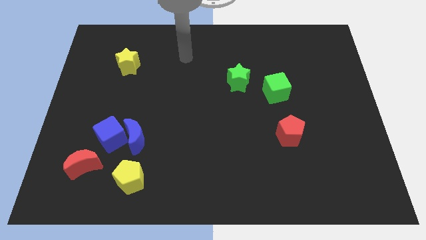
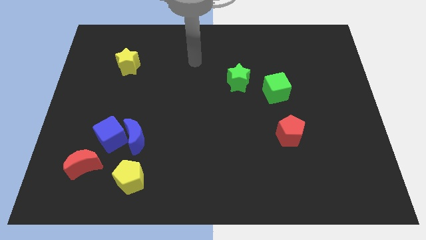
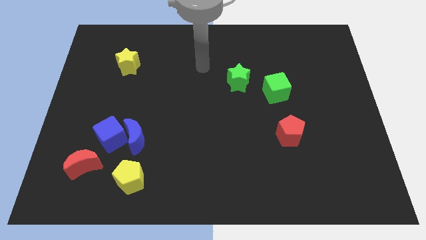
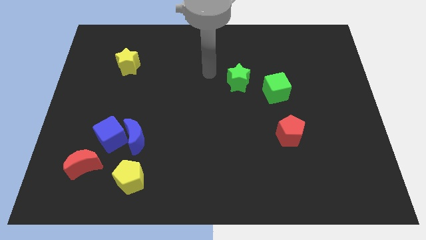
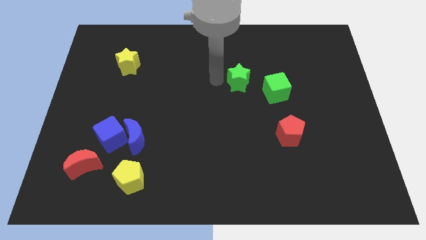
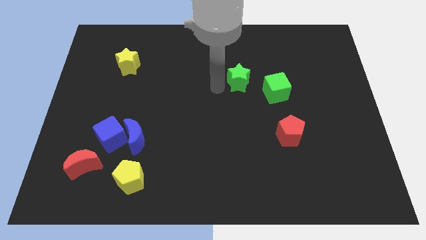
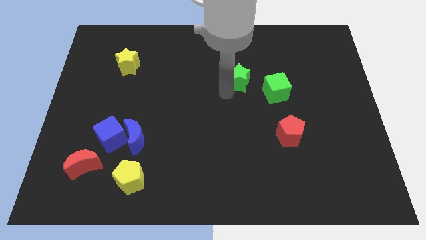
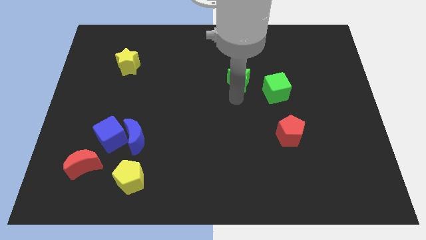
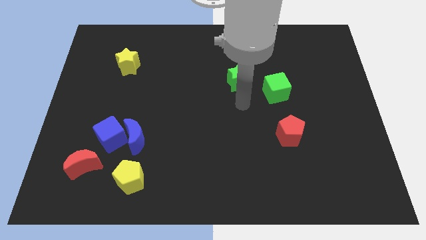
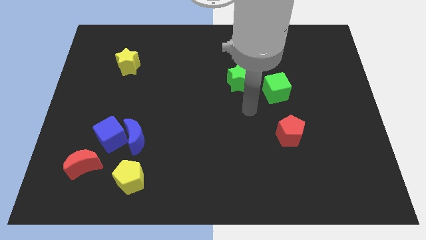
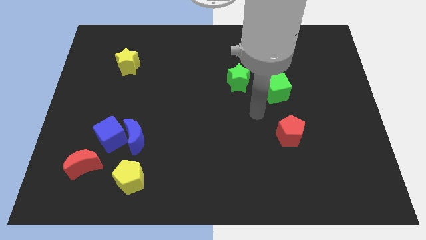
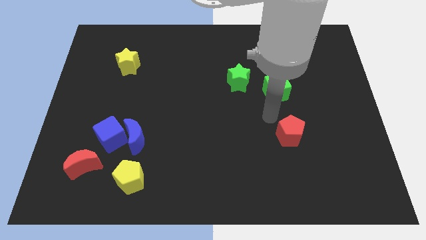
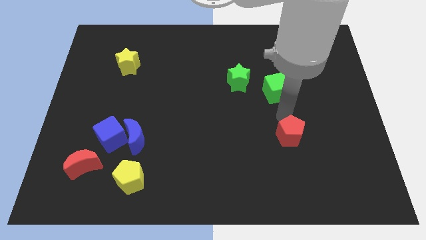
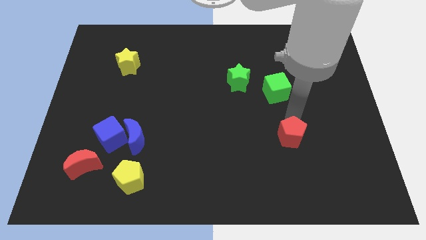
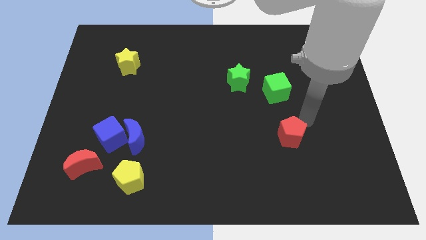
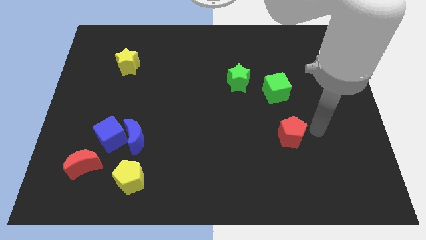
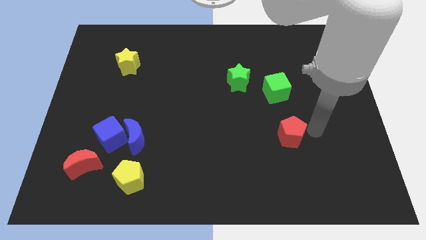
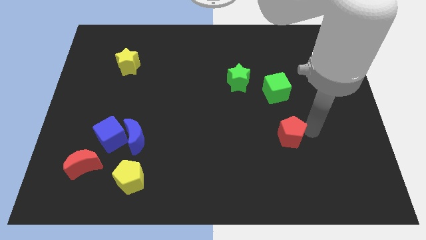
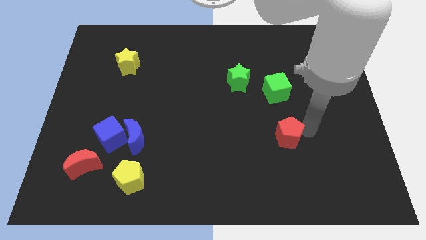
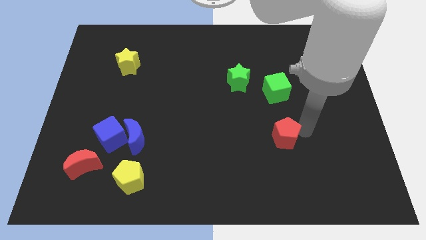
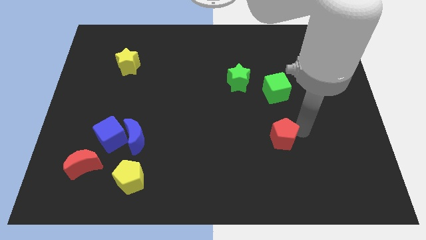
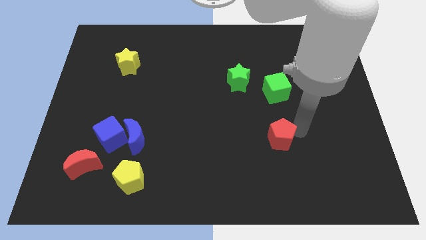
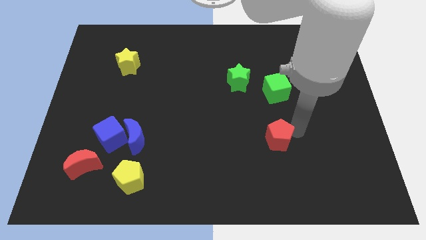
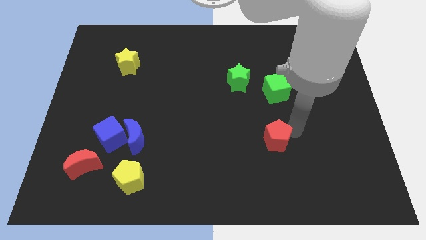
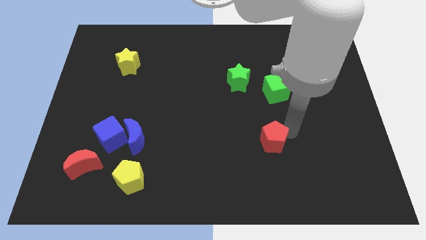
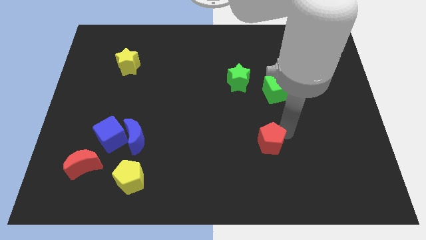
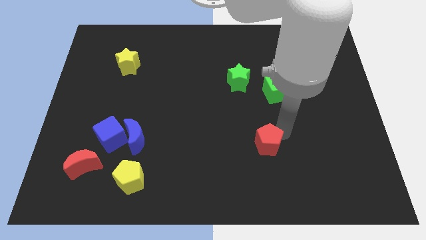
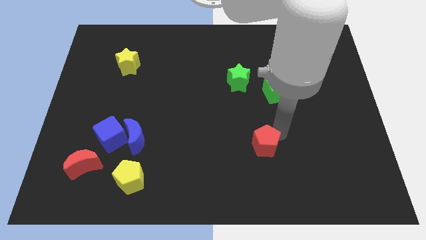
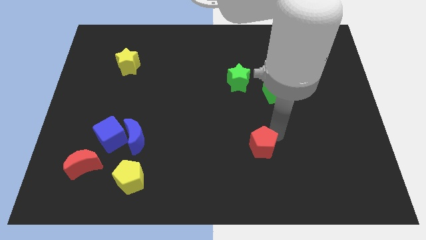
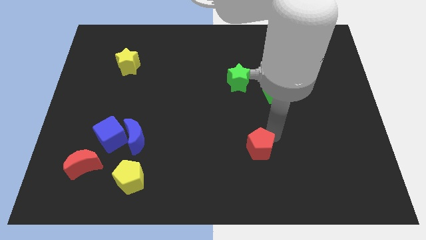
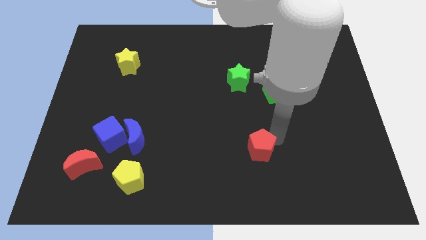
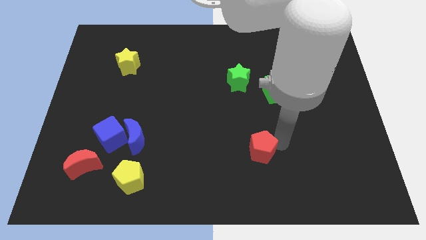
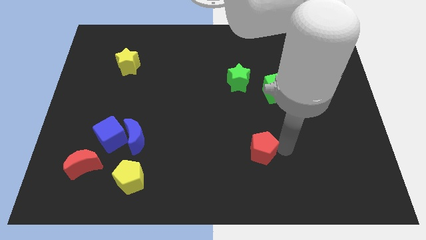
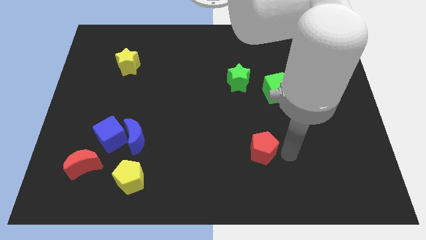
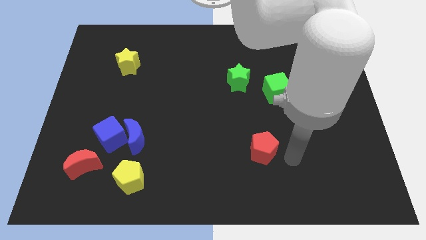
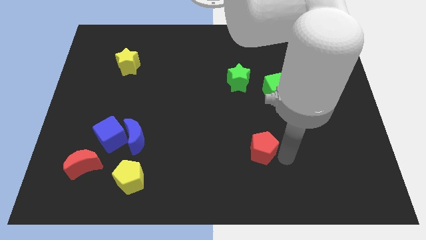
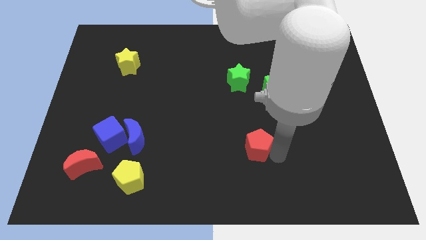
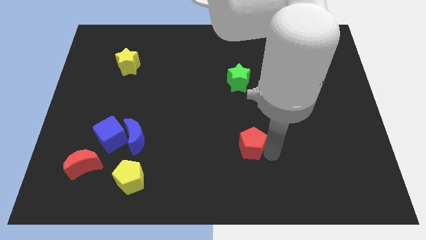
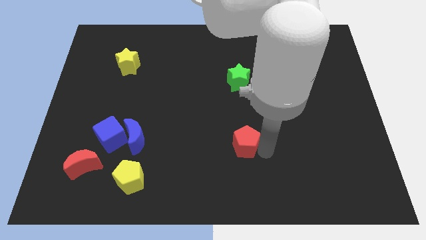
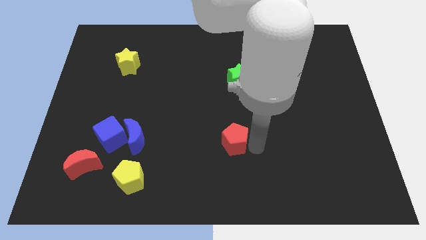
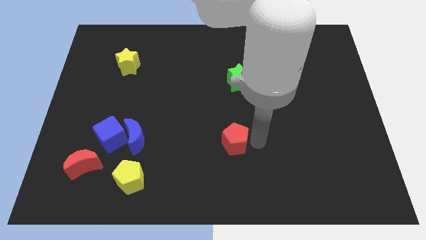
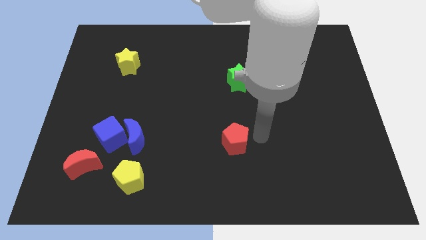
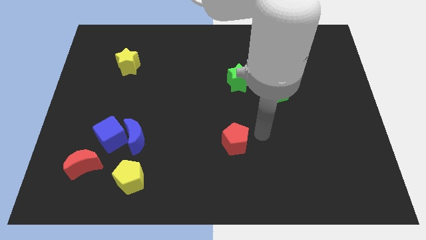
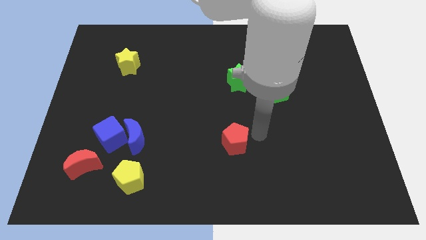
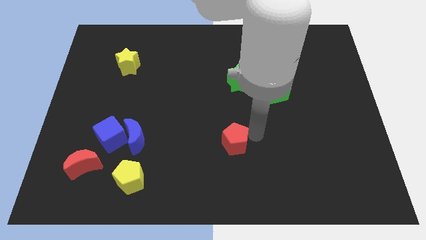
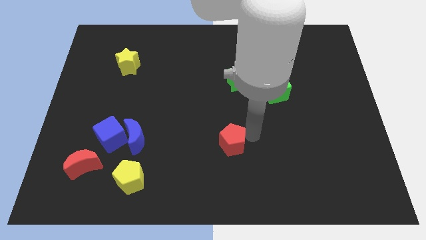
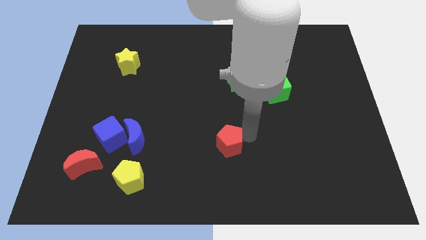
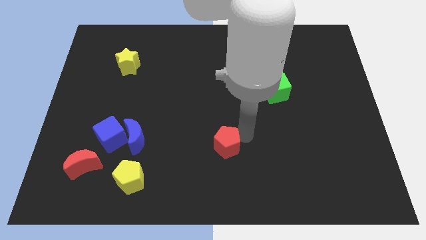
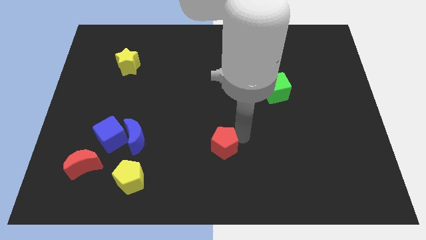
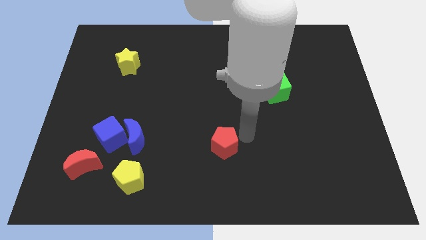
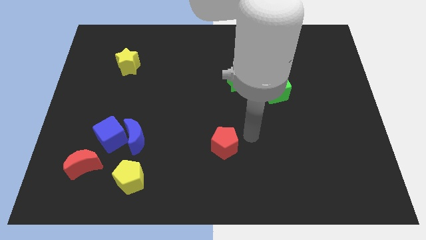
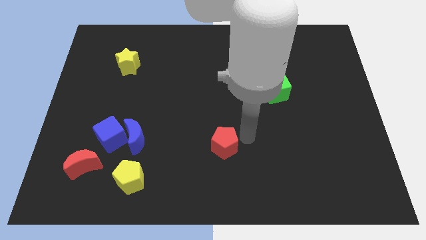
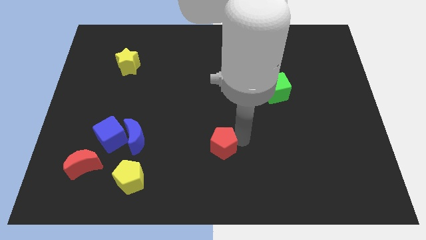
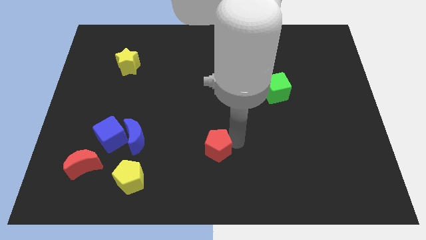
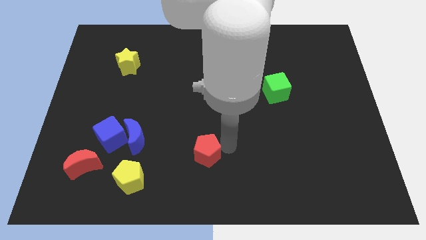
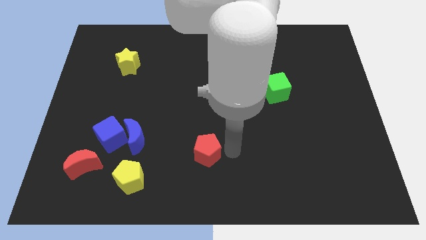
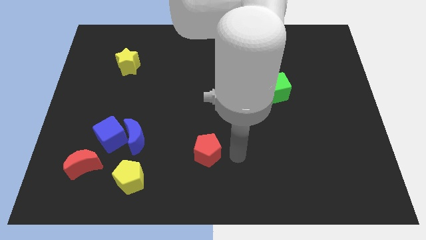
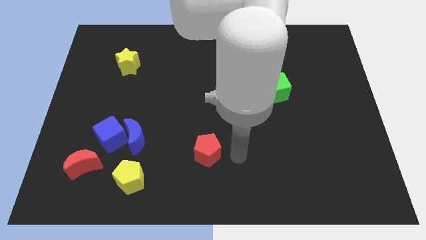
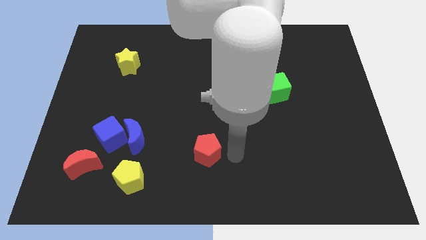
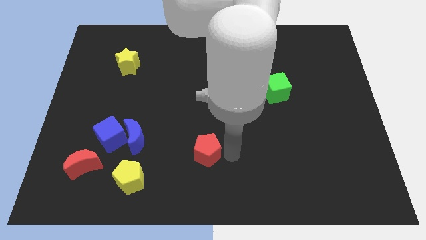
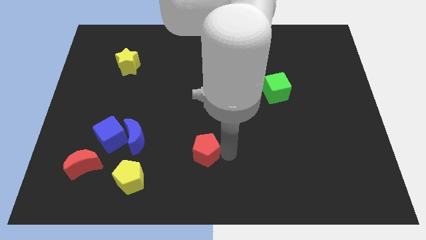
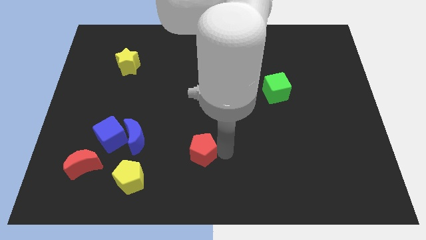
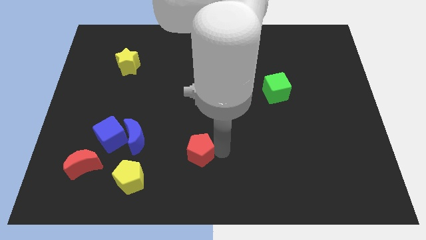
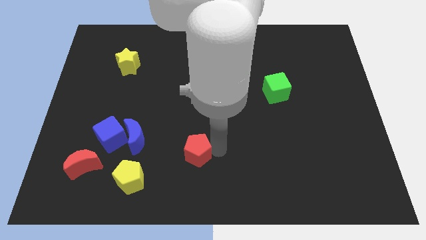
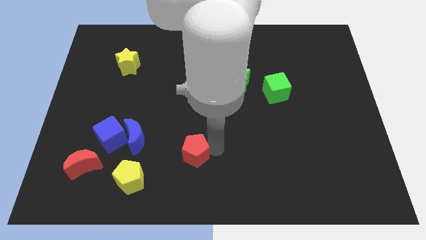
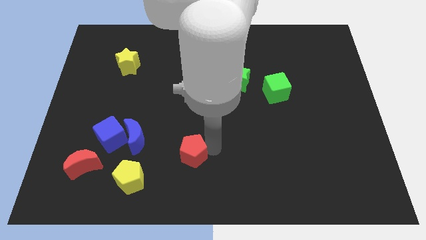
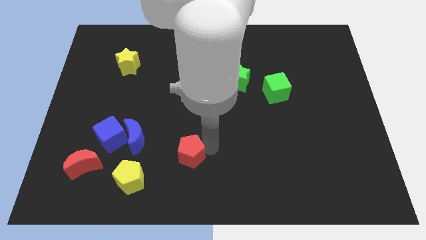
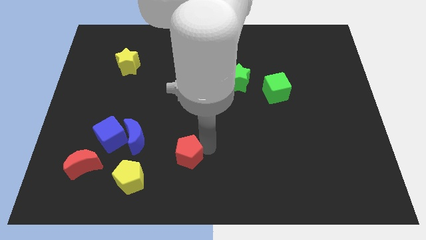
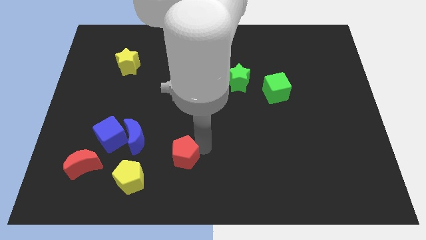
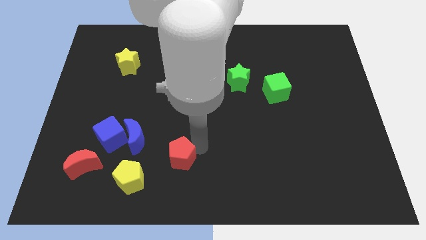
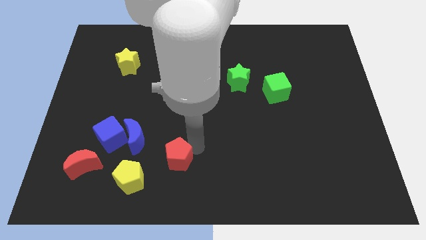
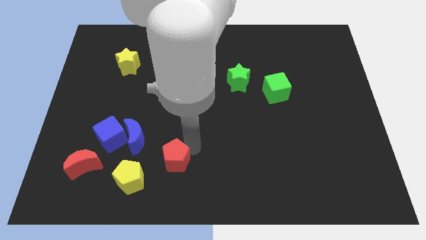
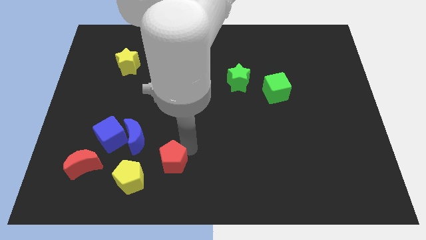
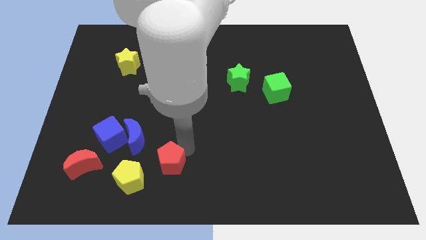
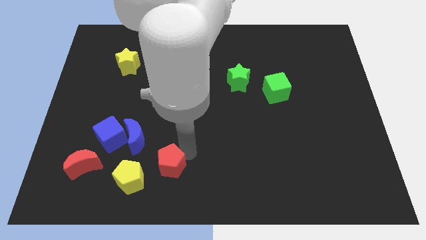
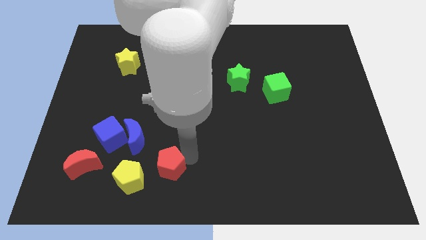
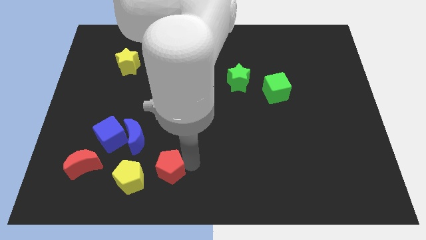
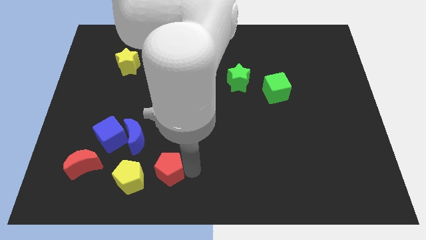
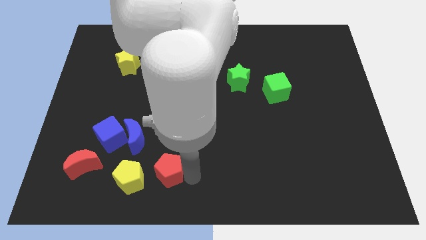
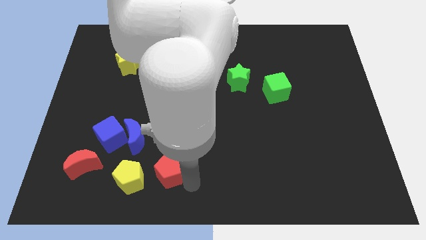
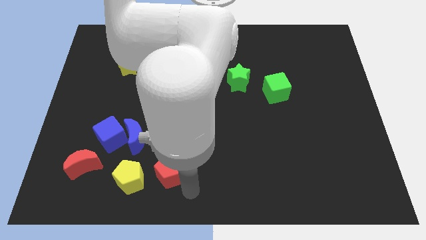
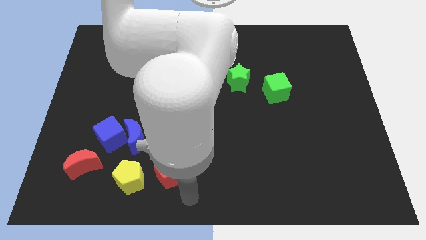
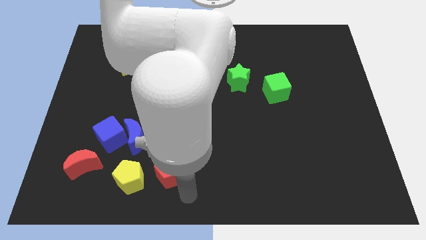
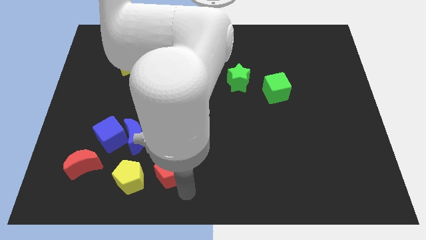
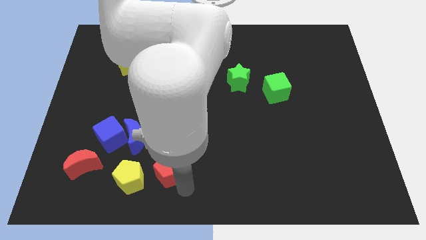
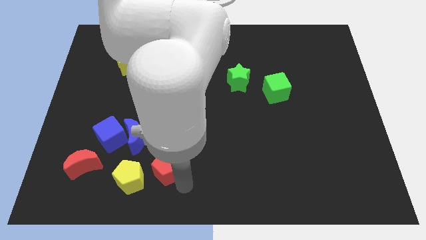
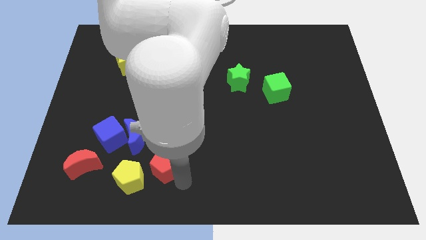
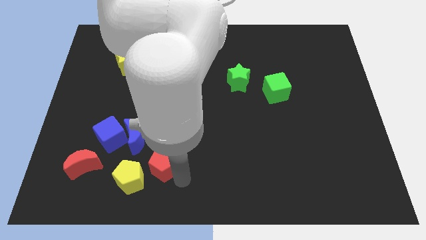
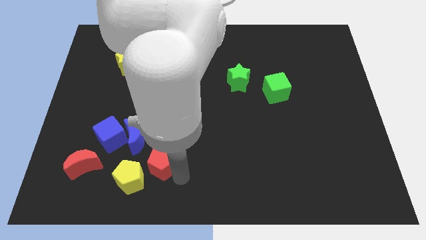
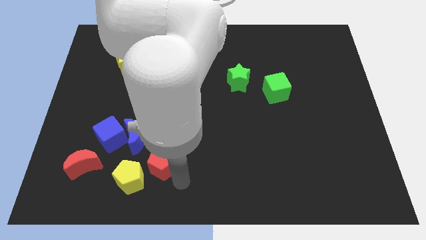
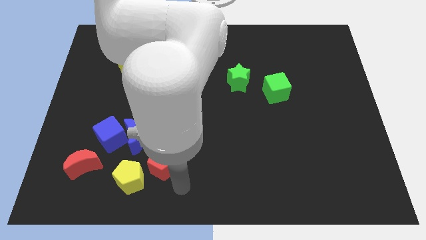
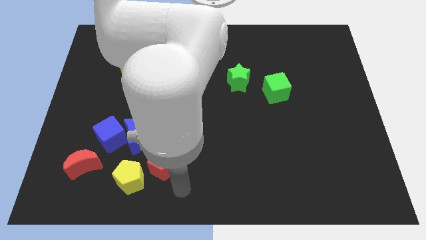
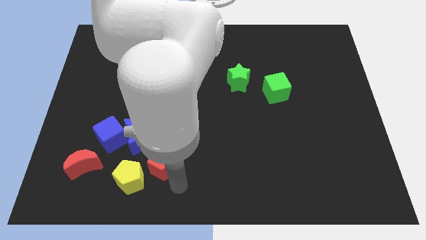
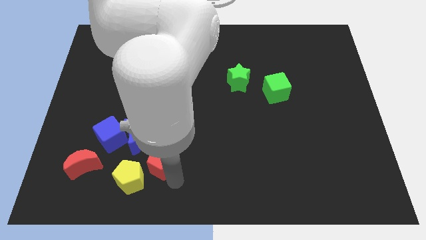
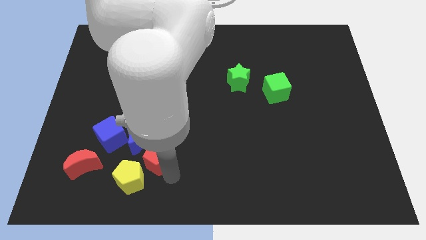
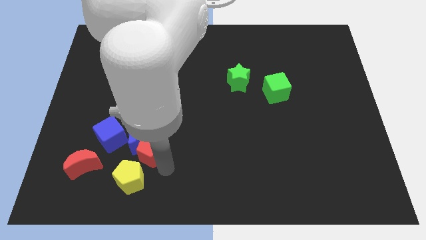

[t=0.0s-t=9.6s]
put the red pentagon next to the blue moon
